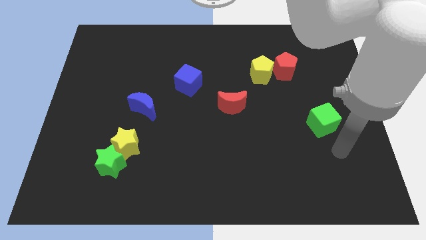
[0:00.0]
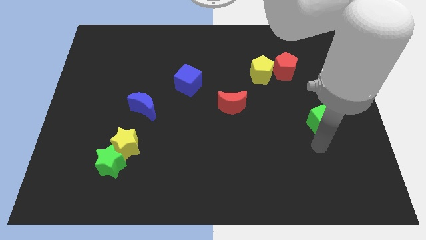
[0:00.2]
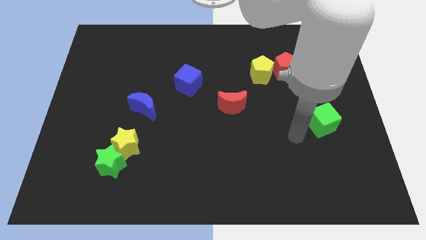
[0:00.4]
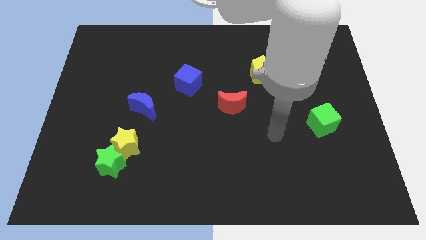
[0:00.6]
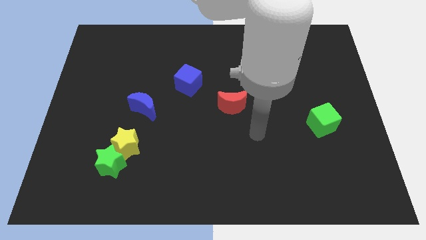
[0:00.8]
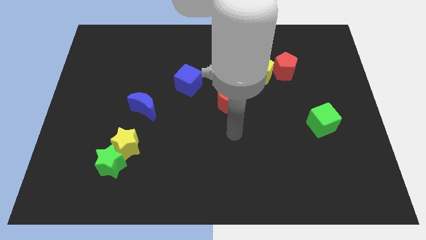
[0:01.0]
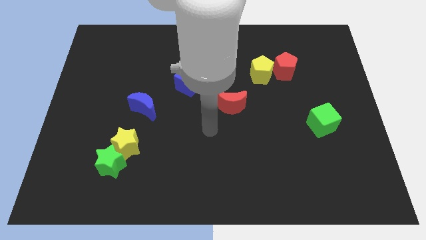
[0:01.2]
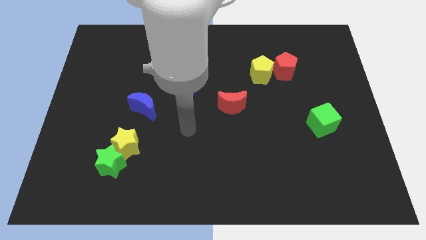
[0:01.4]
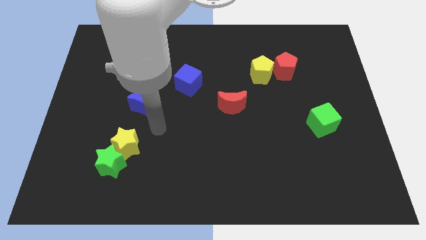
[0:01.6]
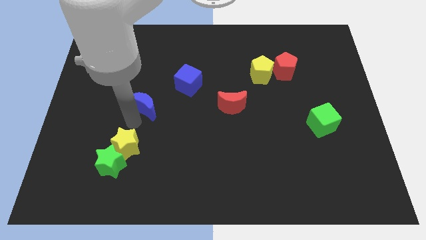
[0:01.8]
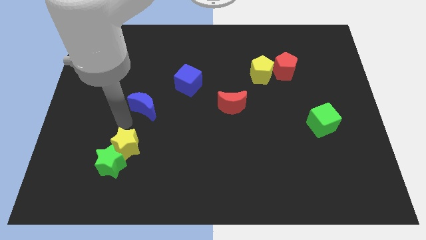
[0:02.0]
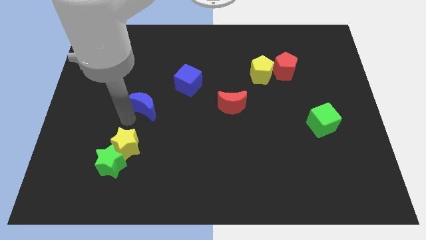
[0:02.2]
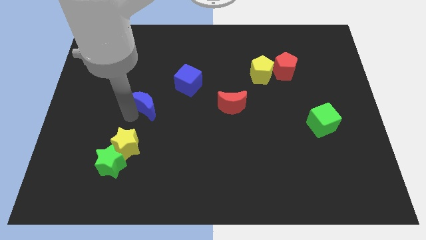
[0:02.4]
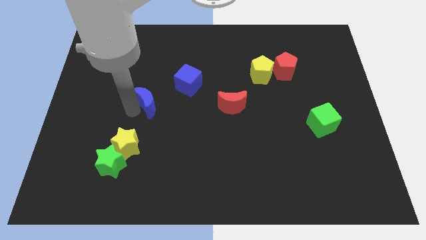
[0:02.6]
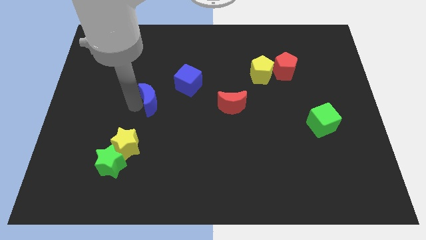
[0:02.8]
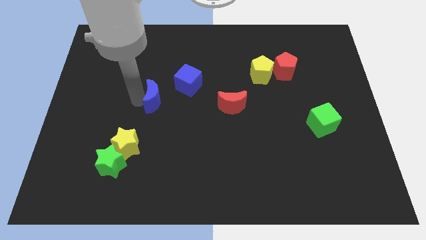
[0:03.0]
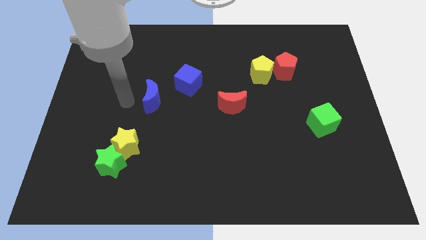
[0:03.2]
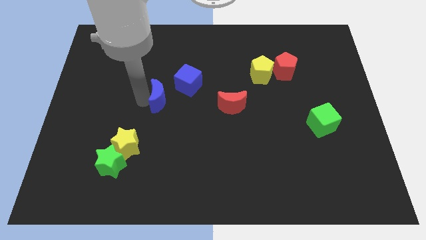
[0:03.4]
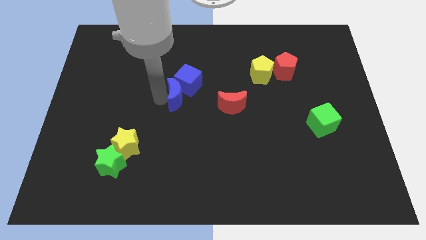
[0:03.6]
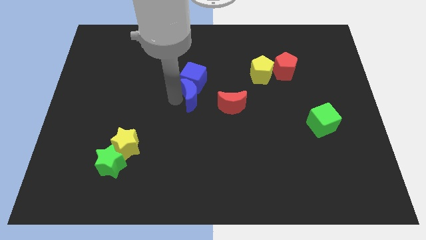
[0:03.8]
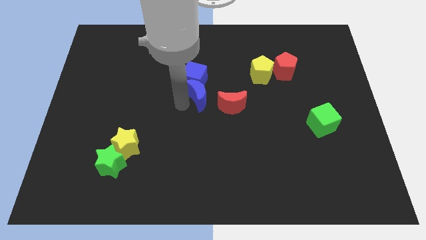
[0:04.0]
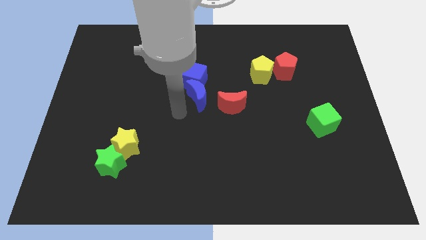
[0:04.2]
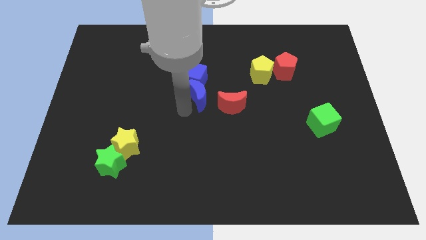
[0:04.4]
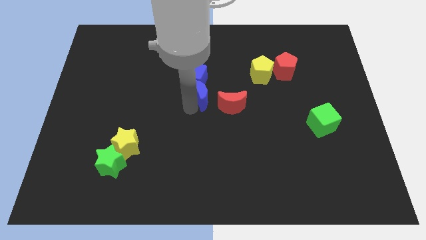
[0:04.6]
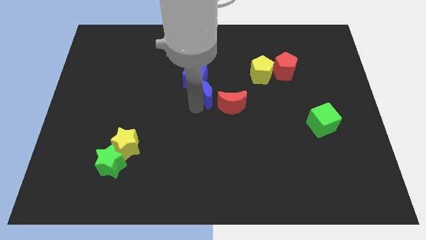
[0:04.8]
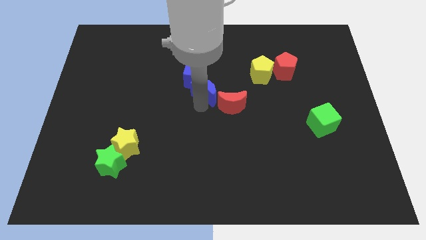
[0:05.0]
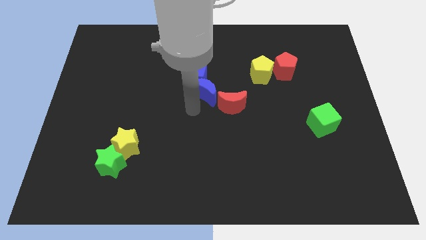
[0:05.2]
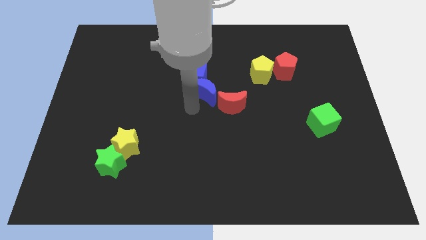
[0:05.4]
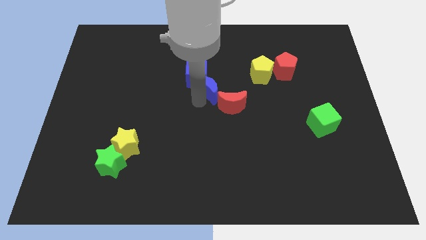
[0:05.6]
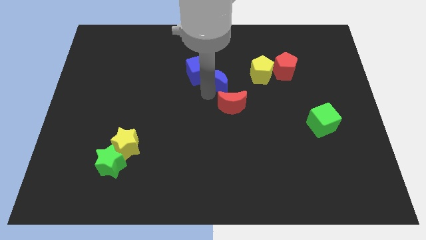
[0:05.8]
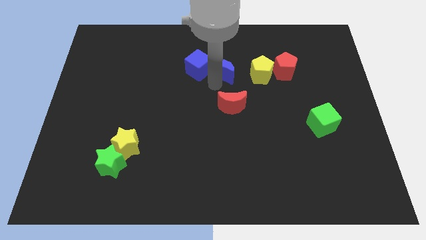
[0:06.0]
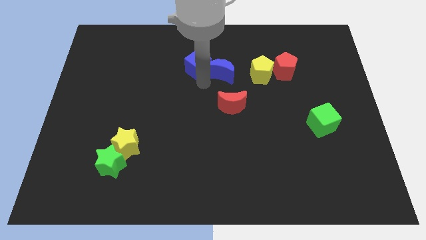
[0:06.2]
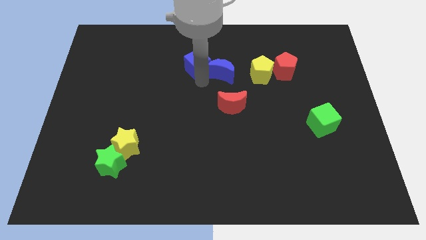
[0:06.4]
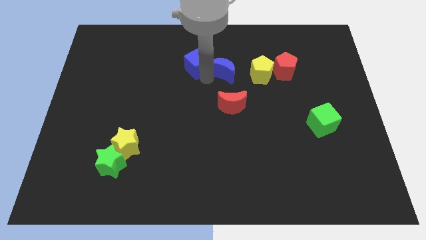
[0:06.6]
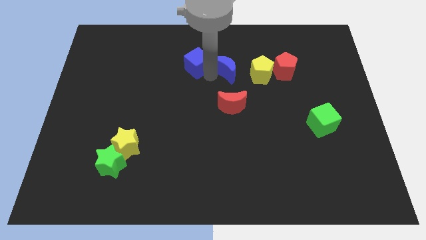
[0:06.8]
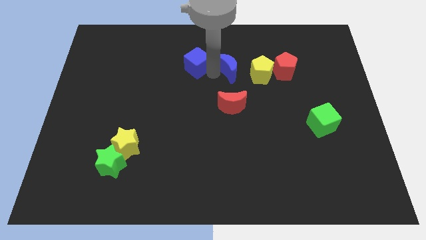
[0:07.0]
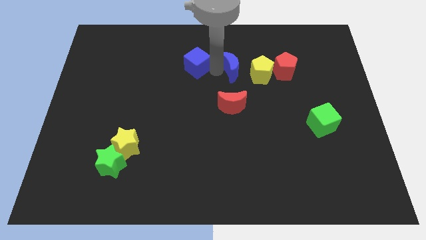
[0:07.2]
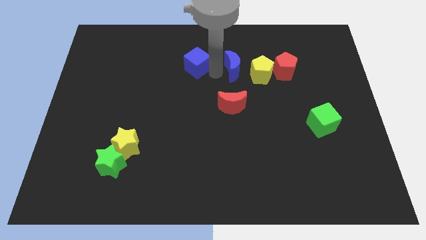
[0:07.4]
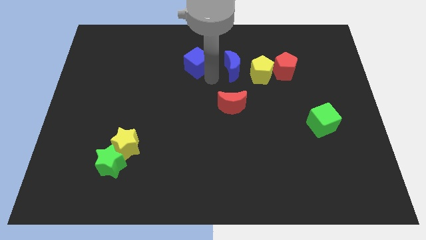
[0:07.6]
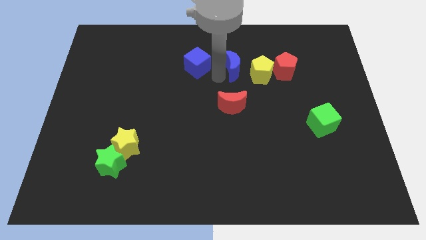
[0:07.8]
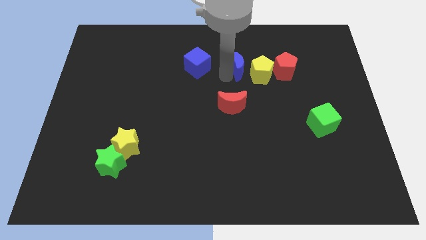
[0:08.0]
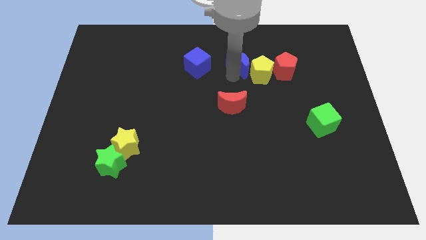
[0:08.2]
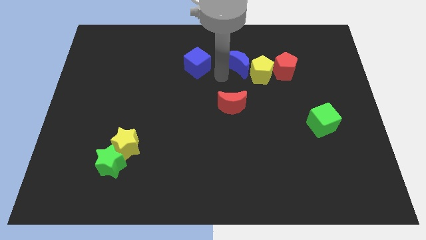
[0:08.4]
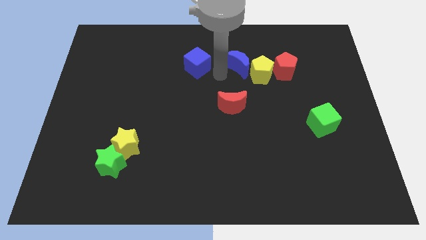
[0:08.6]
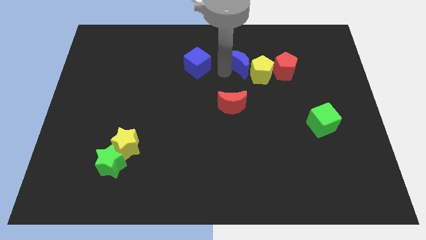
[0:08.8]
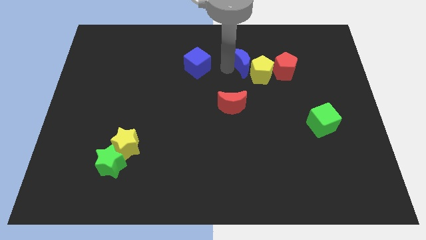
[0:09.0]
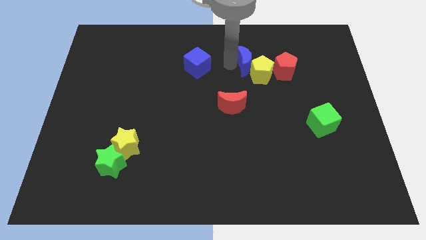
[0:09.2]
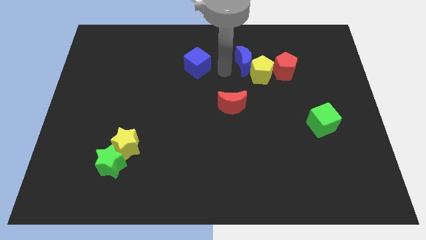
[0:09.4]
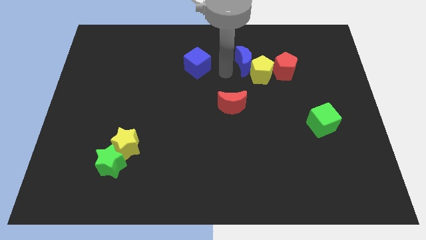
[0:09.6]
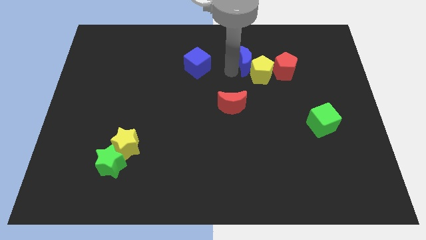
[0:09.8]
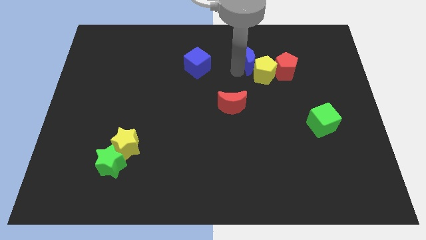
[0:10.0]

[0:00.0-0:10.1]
push the blue moon to the top left side of the red pentagon

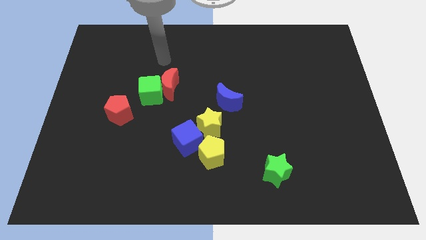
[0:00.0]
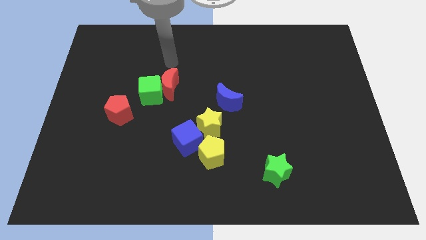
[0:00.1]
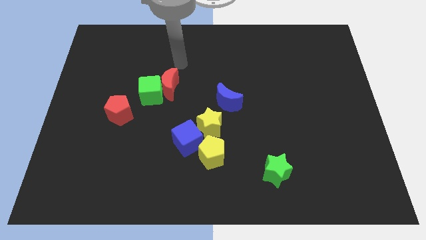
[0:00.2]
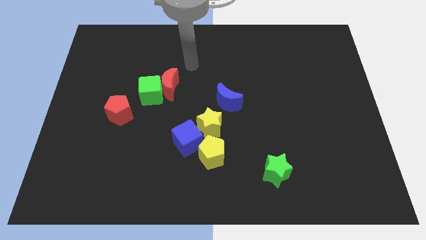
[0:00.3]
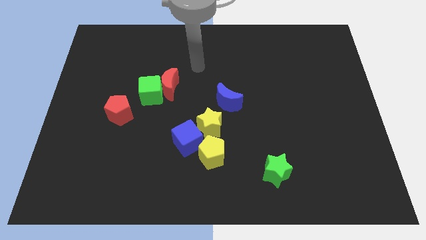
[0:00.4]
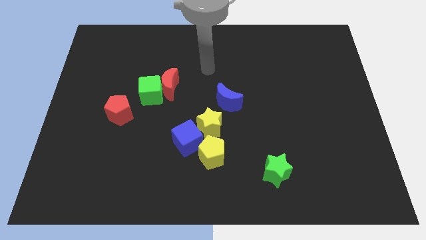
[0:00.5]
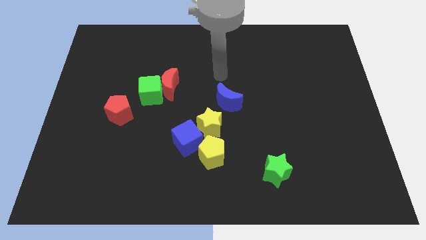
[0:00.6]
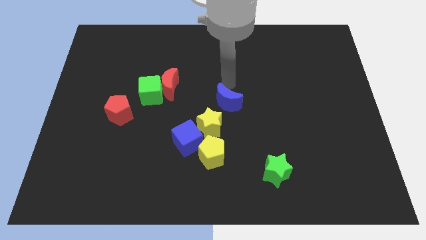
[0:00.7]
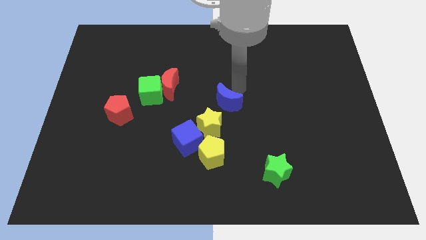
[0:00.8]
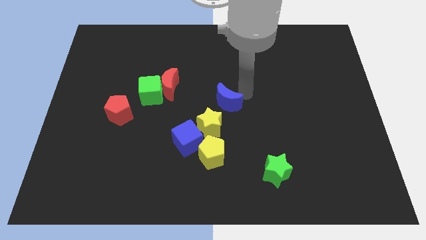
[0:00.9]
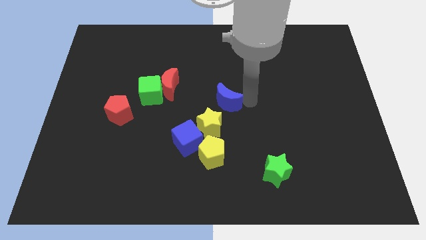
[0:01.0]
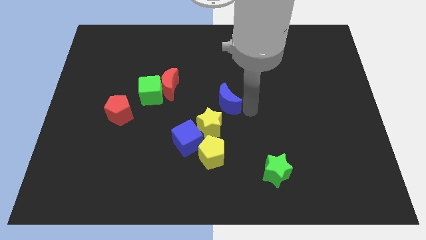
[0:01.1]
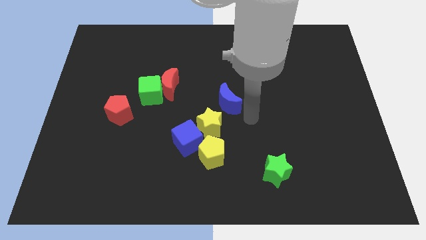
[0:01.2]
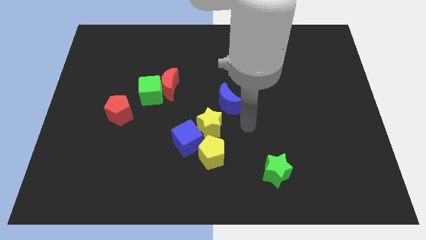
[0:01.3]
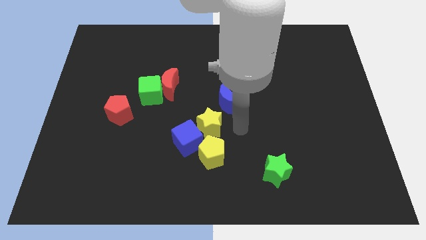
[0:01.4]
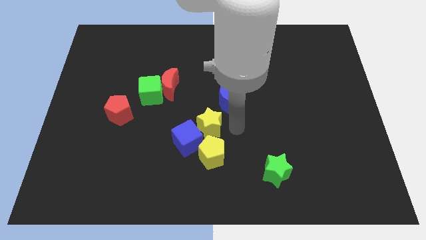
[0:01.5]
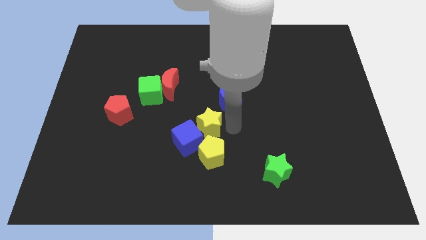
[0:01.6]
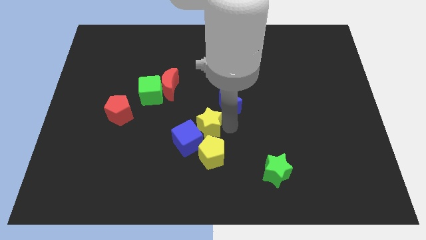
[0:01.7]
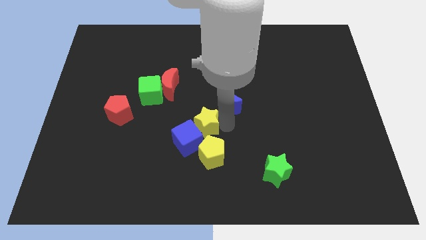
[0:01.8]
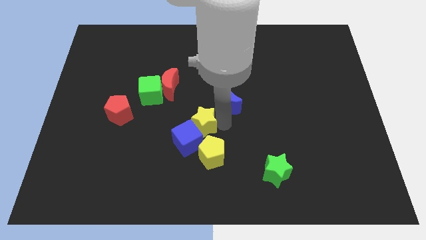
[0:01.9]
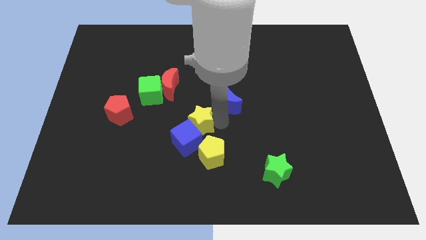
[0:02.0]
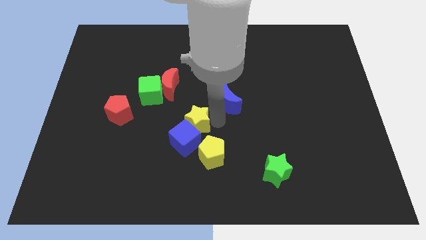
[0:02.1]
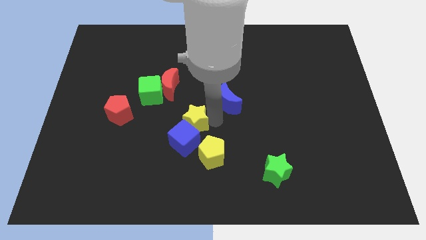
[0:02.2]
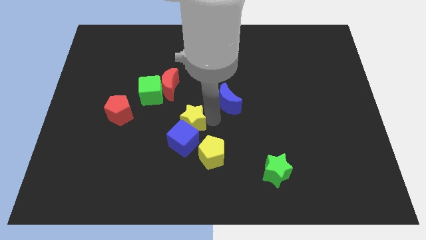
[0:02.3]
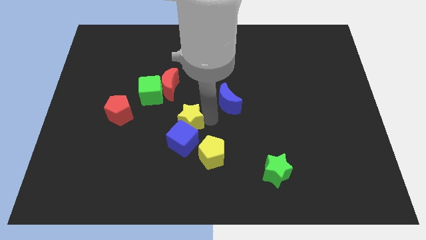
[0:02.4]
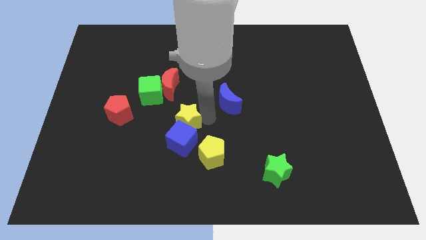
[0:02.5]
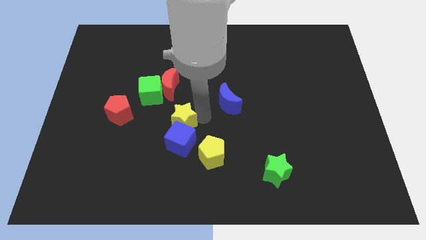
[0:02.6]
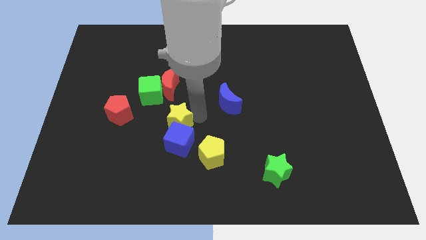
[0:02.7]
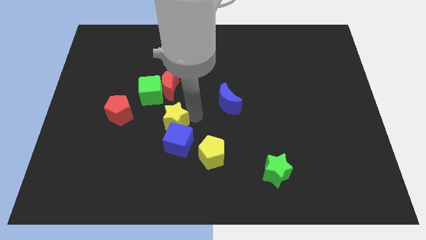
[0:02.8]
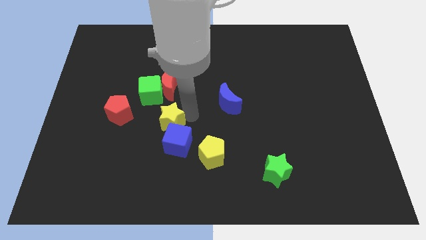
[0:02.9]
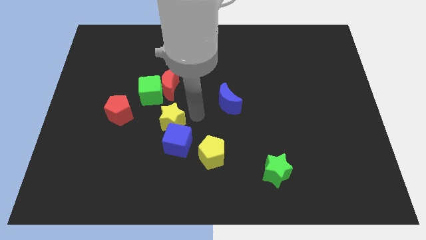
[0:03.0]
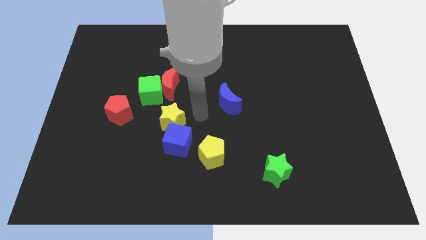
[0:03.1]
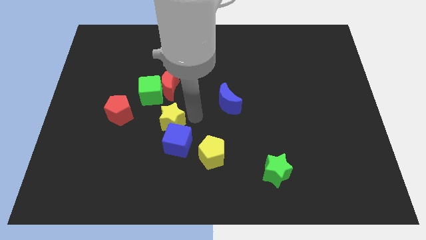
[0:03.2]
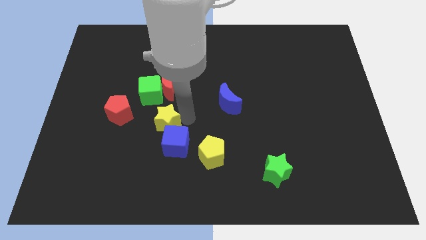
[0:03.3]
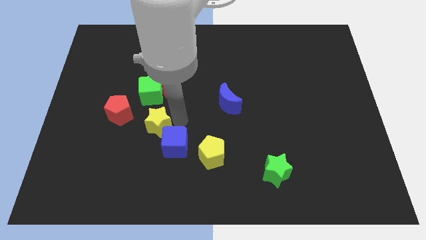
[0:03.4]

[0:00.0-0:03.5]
push the yellow star to the bottom right side of the red pentagon
